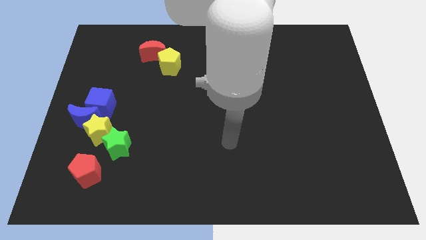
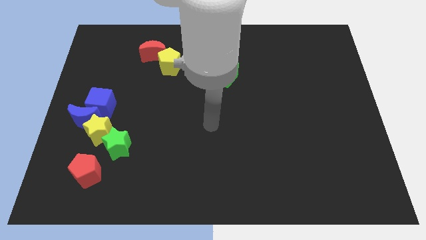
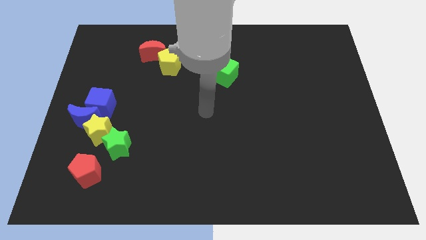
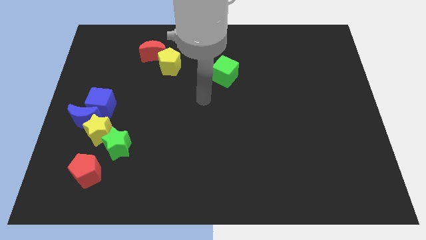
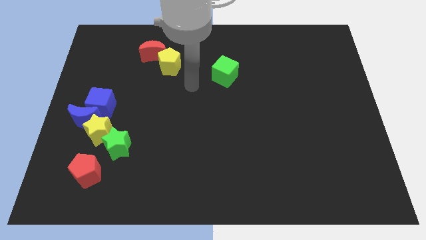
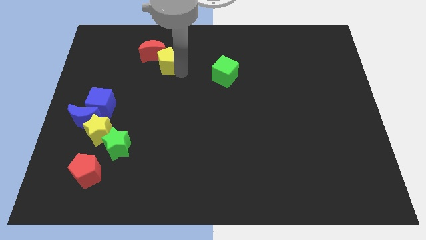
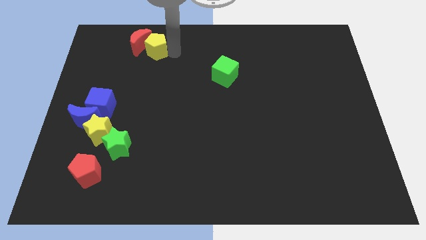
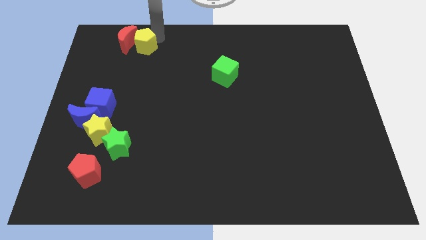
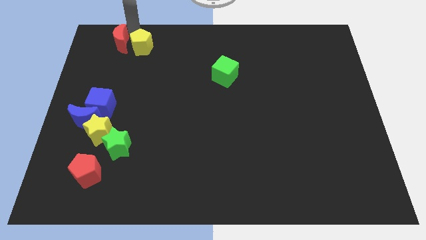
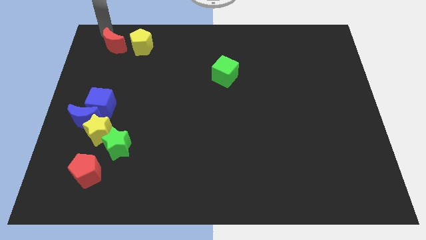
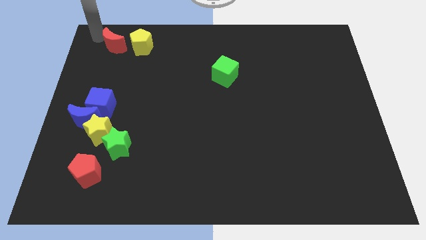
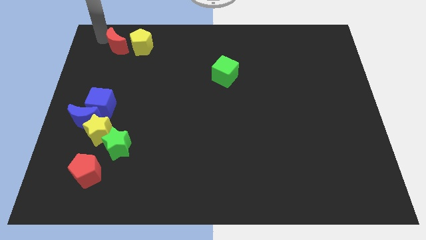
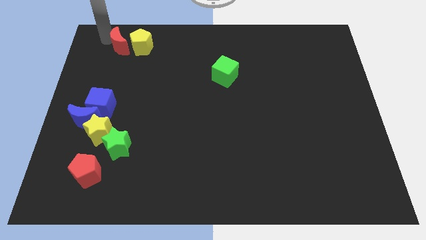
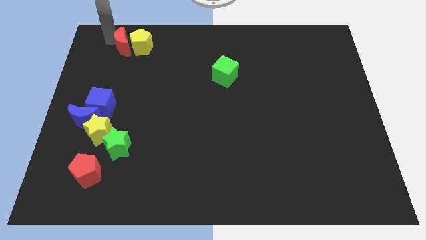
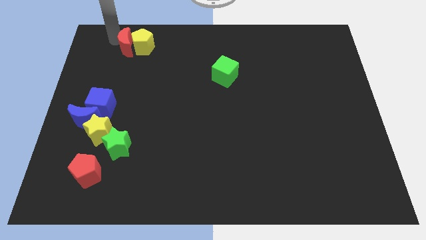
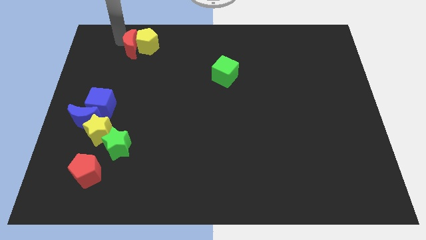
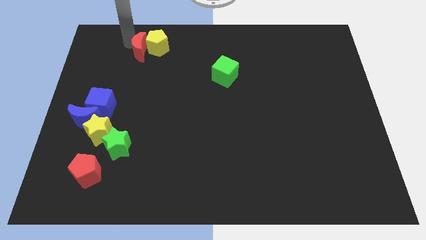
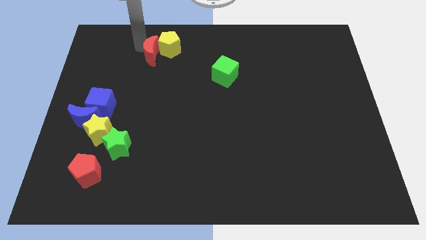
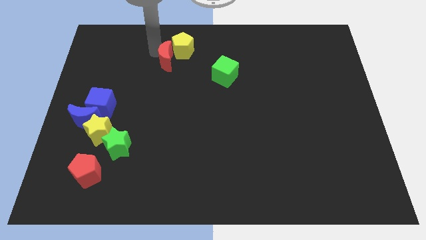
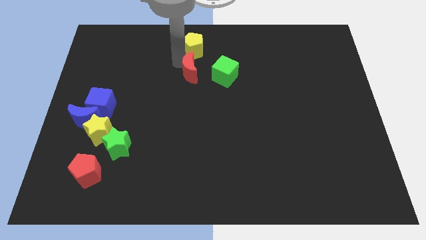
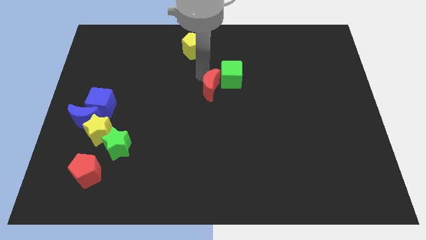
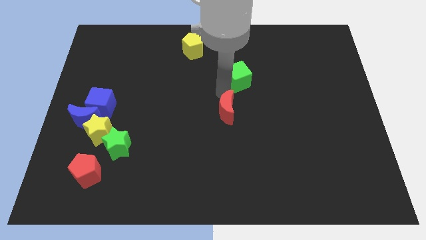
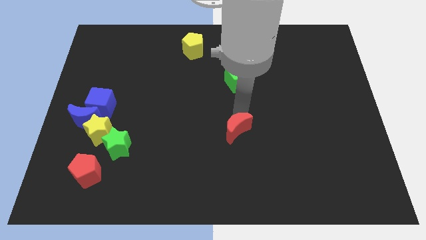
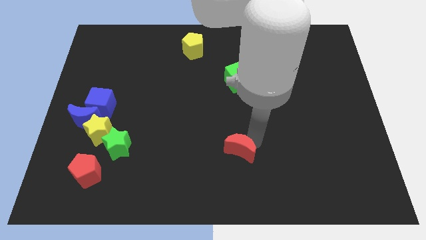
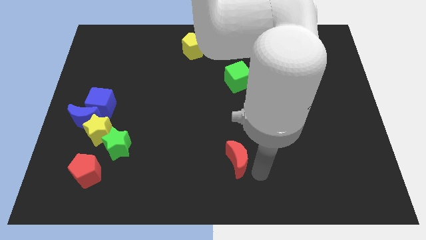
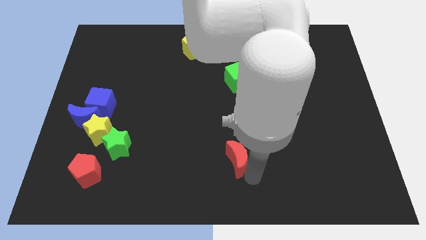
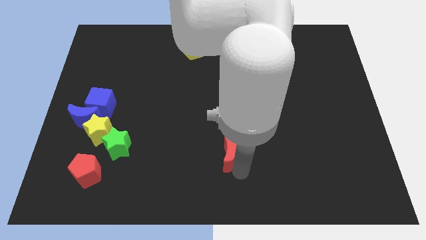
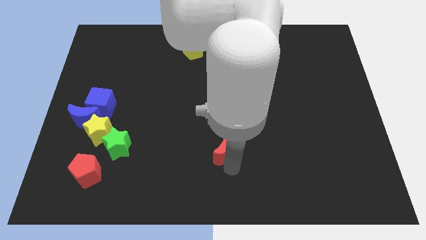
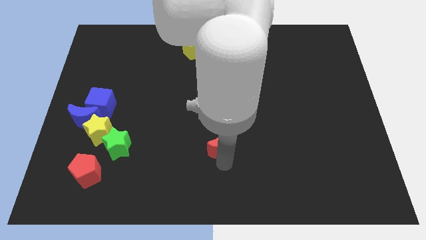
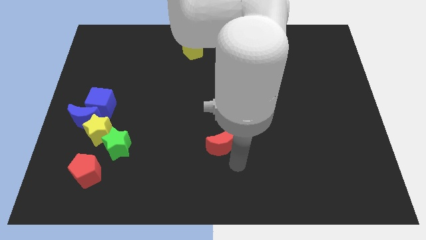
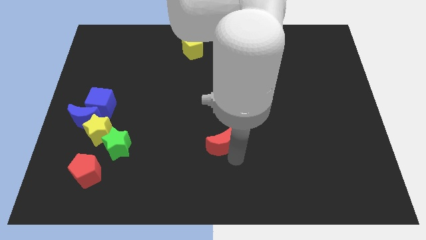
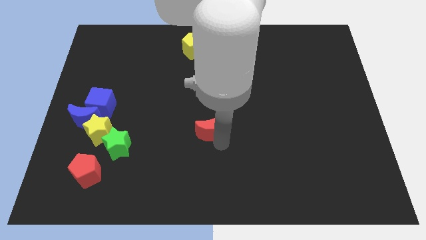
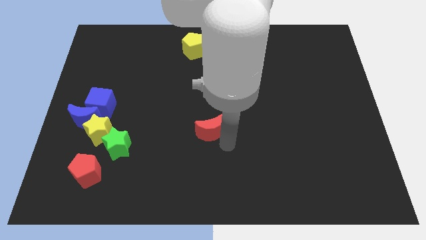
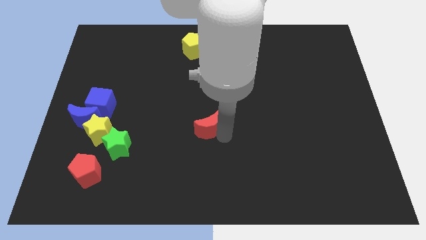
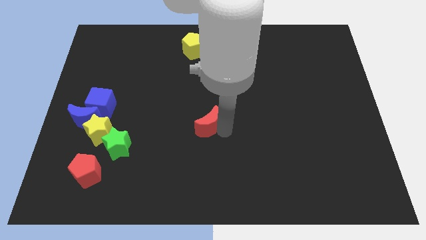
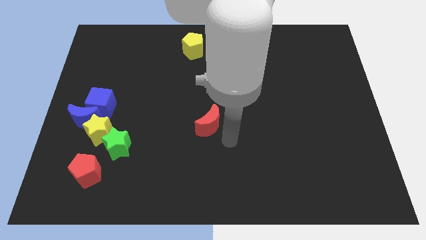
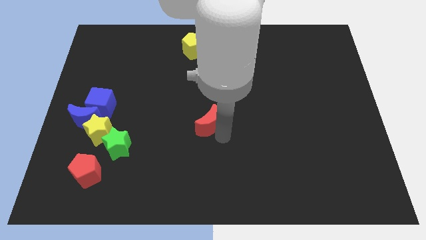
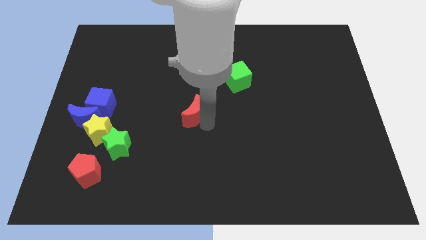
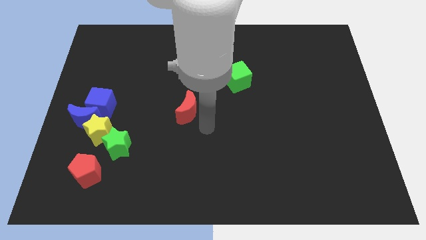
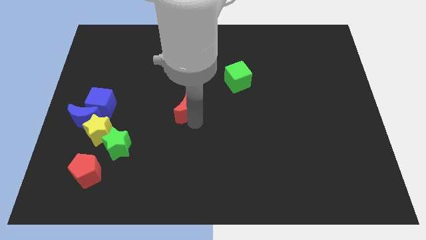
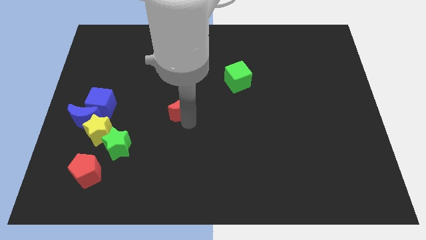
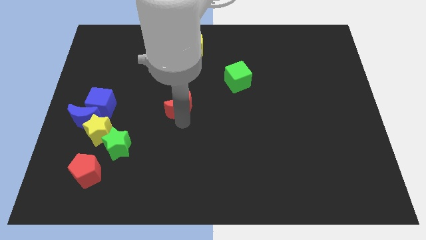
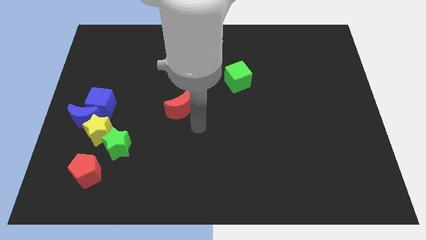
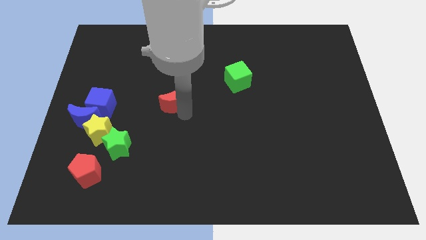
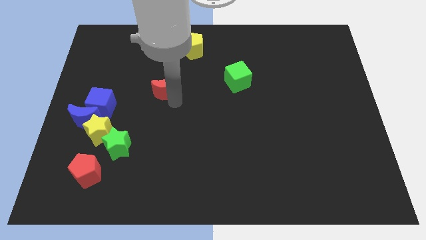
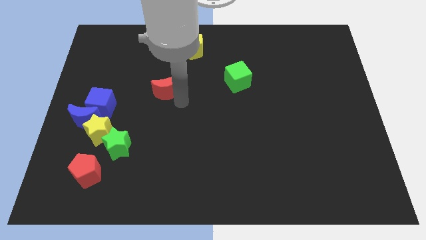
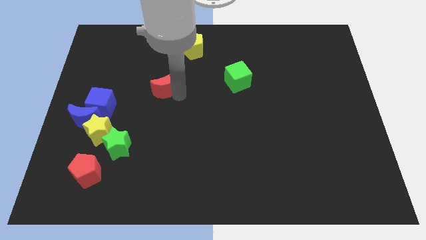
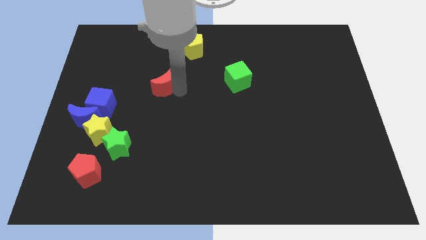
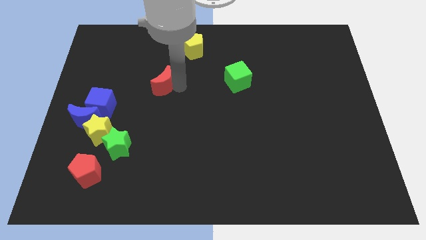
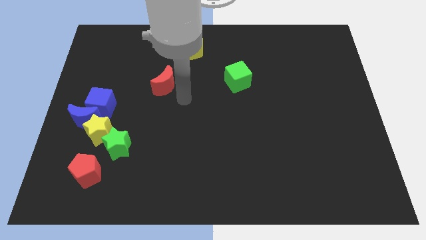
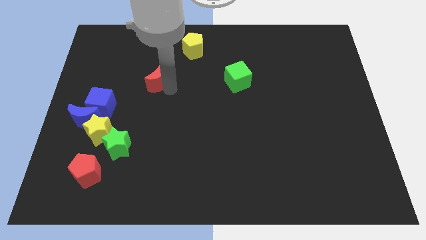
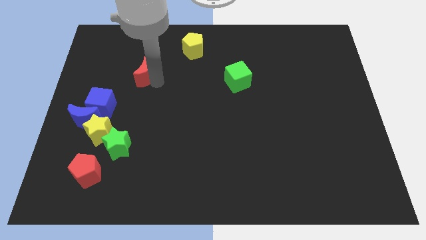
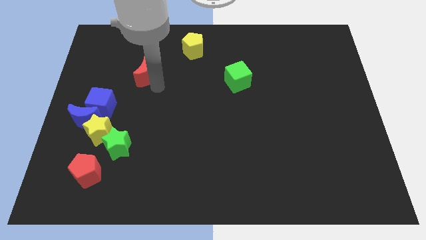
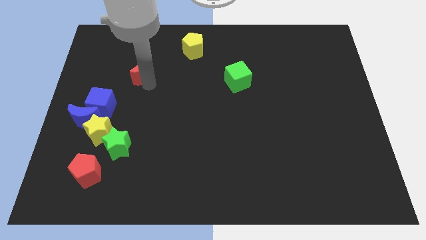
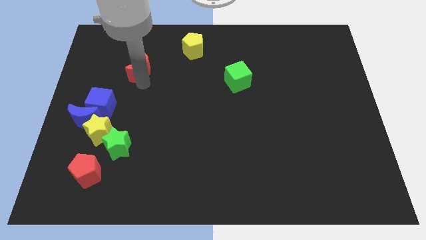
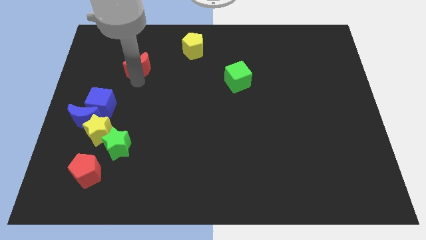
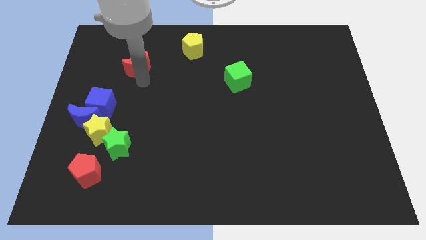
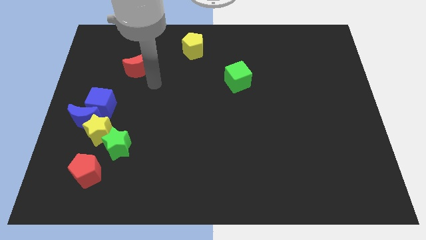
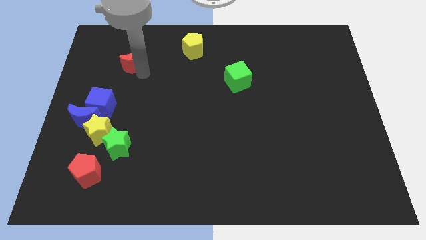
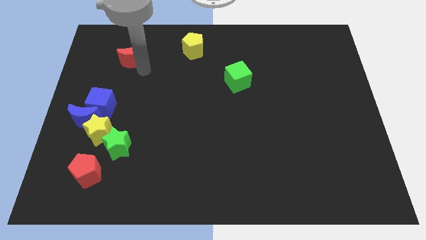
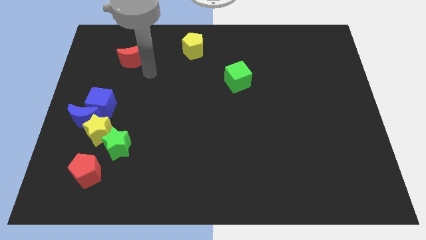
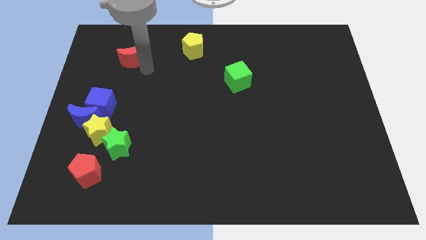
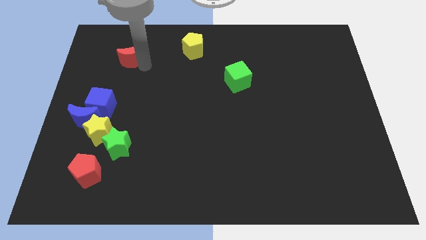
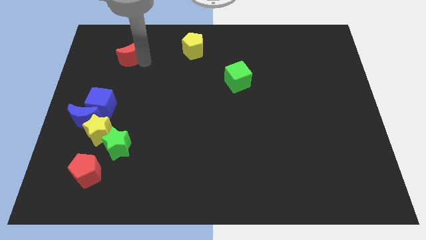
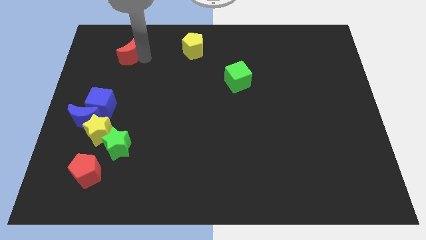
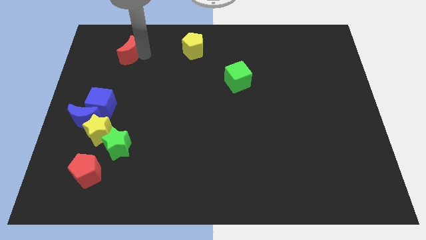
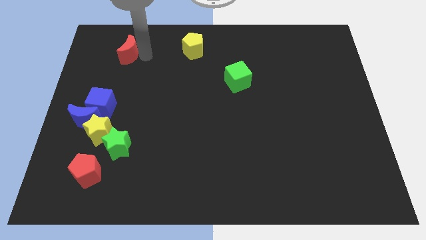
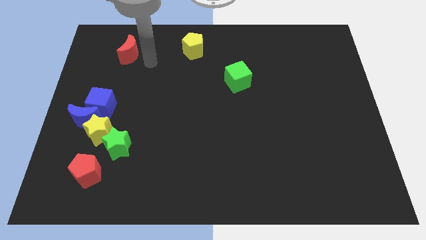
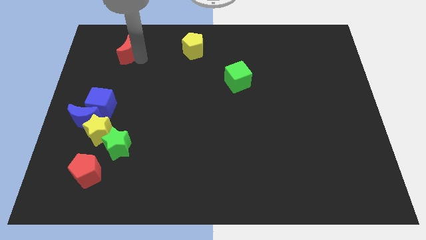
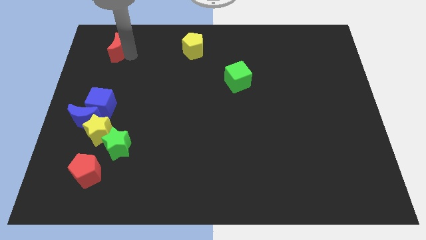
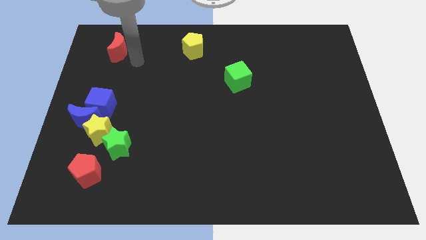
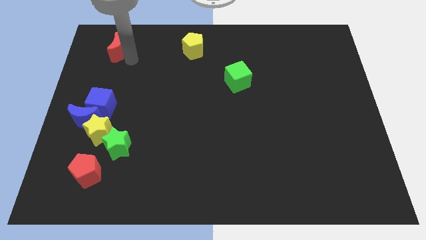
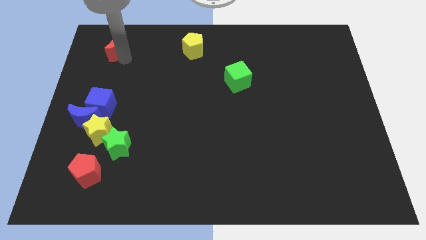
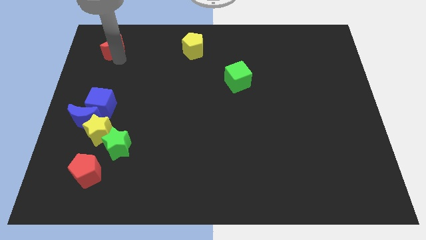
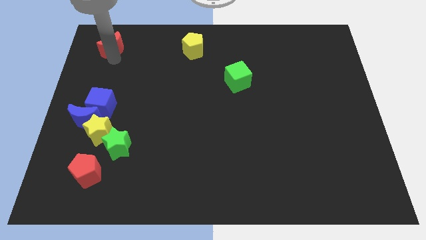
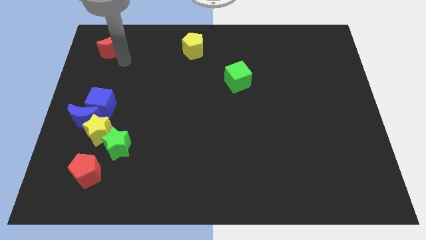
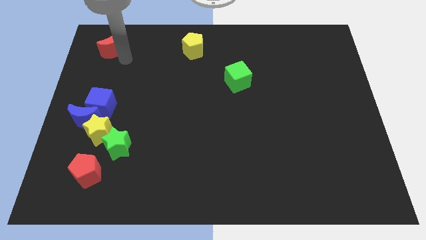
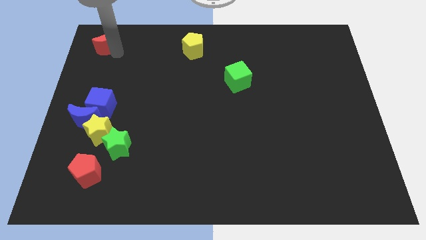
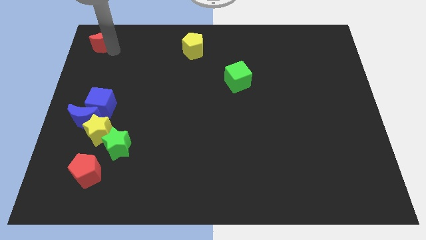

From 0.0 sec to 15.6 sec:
put the red moon to the top left corner
